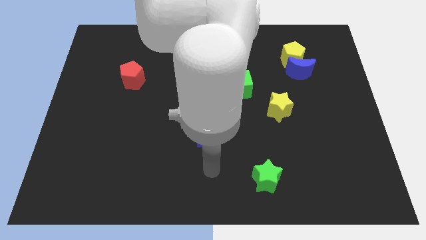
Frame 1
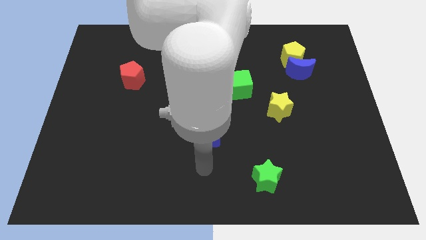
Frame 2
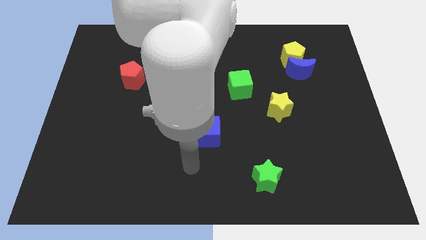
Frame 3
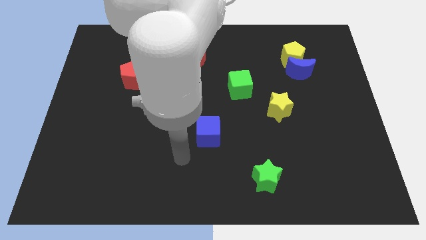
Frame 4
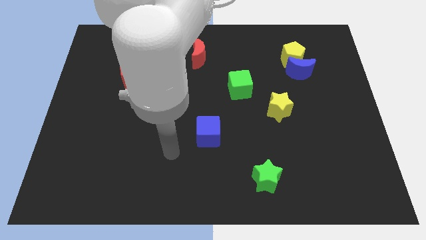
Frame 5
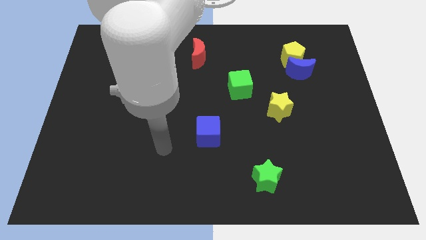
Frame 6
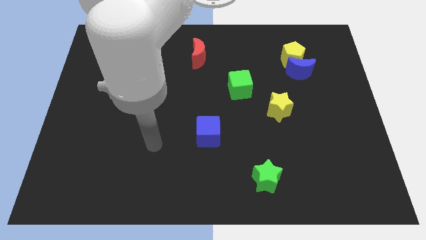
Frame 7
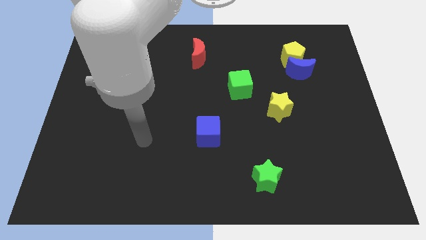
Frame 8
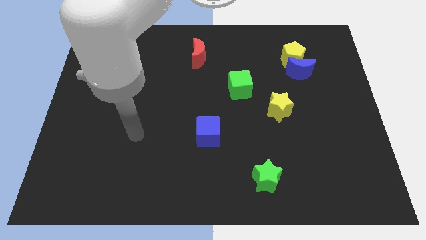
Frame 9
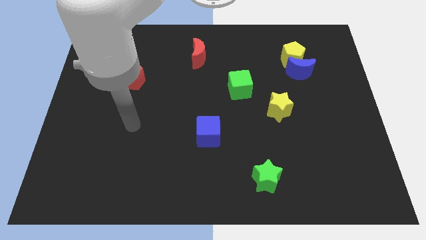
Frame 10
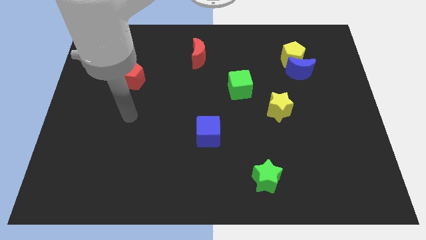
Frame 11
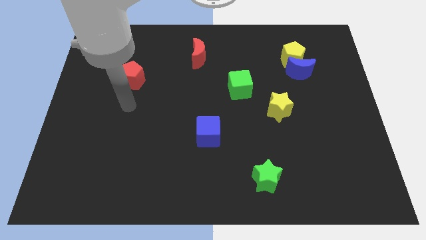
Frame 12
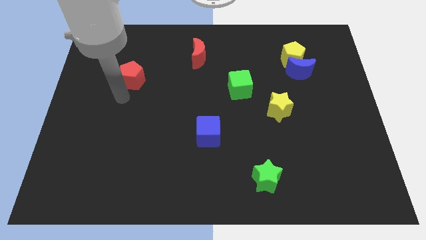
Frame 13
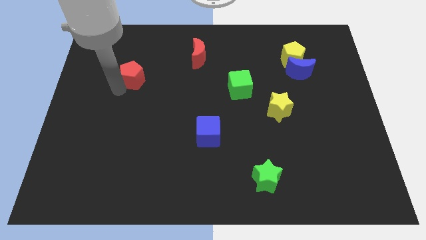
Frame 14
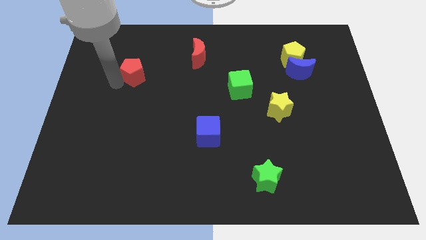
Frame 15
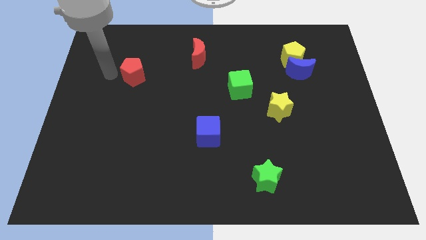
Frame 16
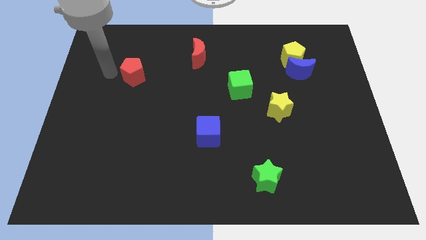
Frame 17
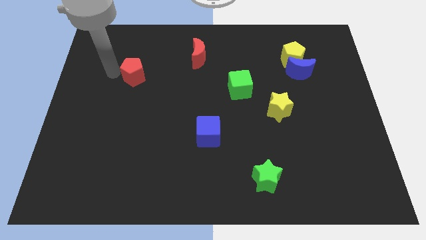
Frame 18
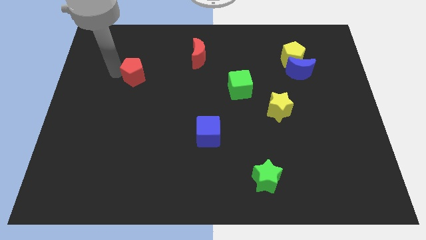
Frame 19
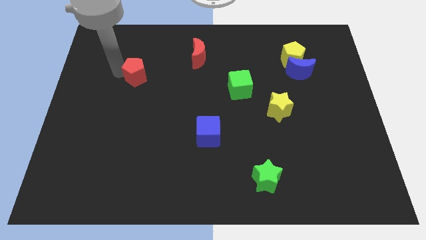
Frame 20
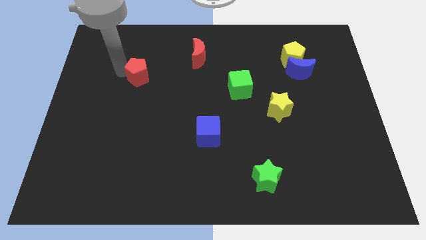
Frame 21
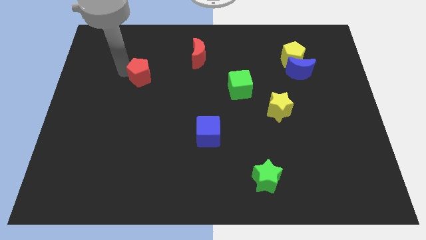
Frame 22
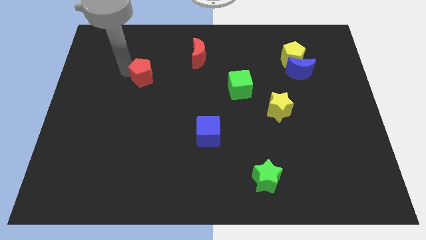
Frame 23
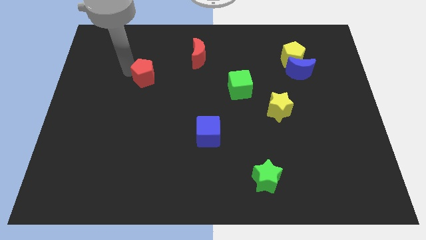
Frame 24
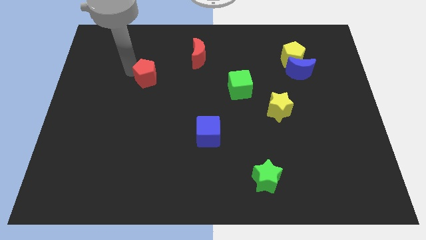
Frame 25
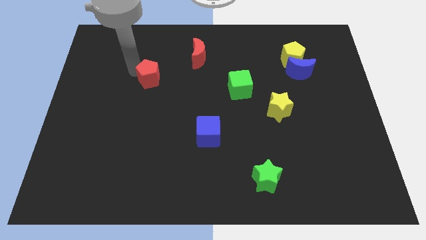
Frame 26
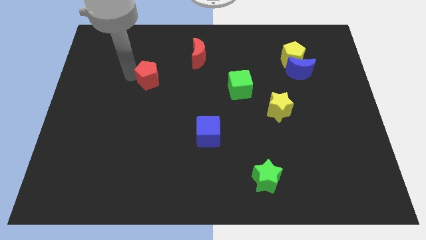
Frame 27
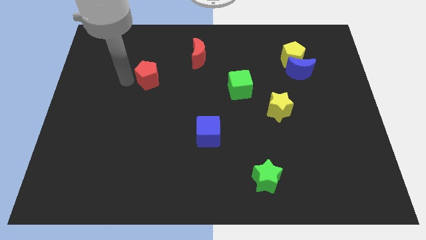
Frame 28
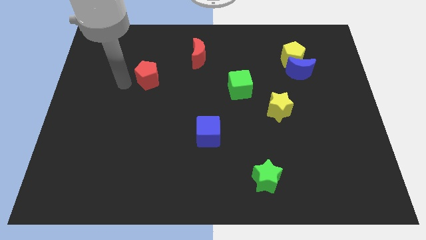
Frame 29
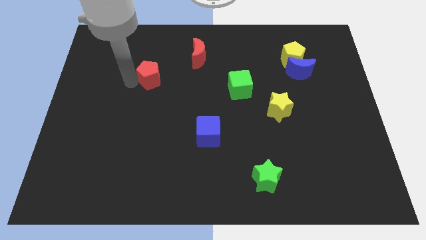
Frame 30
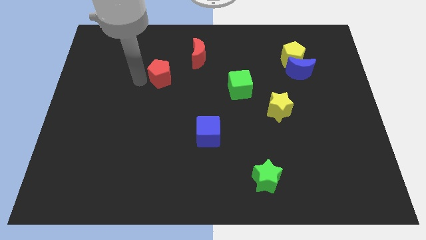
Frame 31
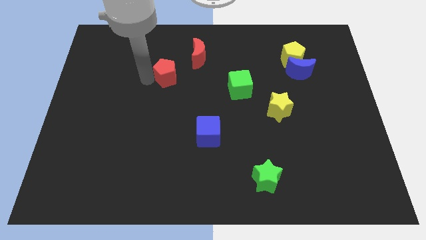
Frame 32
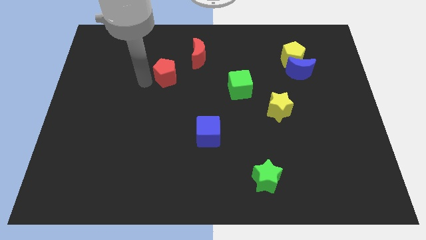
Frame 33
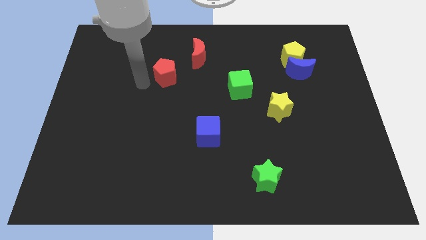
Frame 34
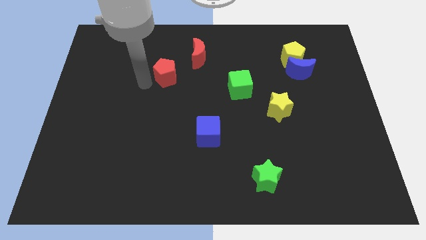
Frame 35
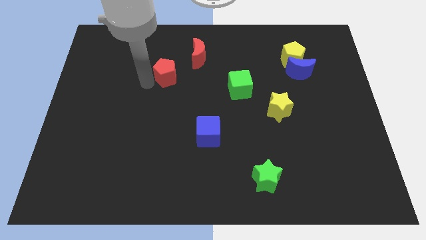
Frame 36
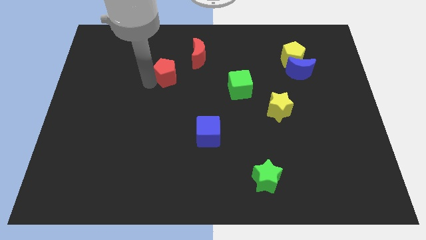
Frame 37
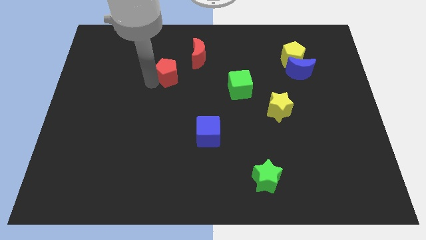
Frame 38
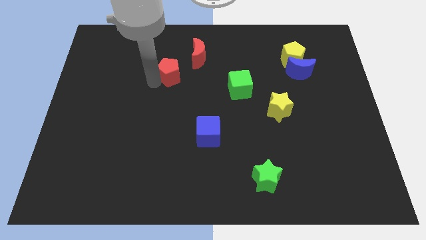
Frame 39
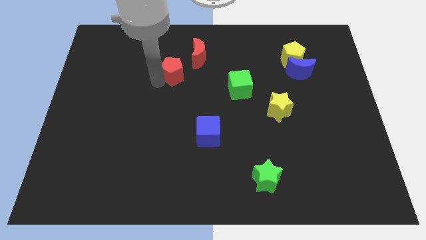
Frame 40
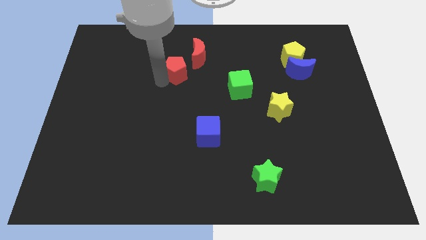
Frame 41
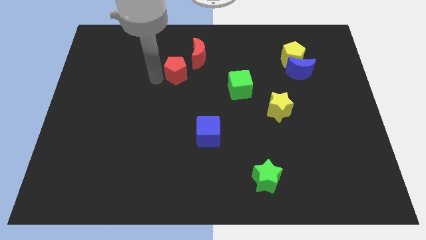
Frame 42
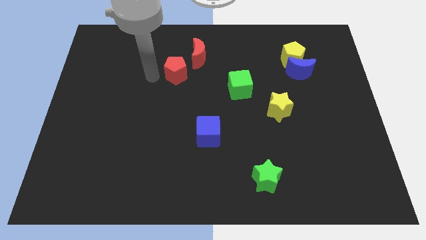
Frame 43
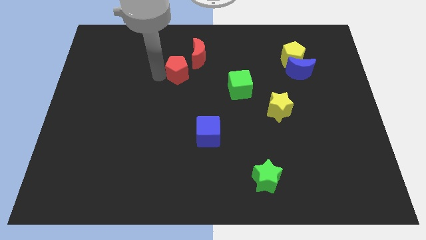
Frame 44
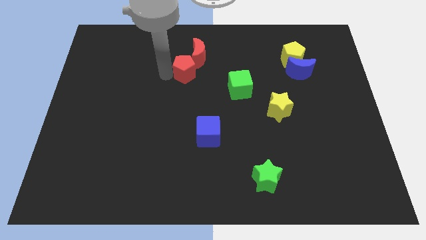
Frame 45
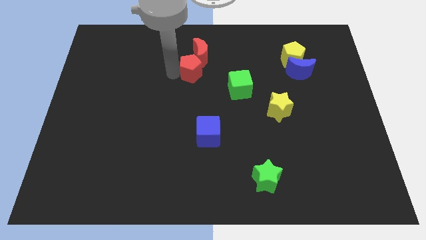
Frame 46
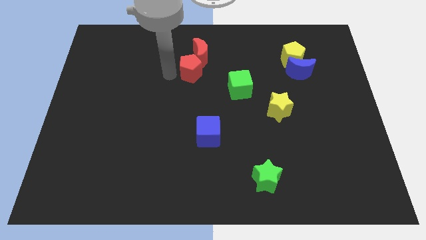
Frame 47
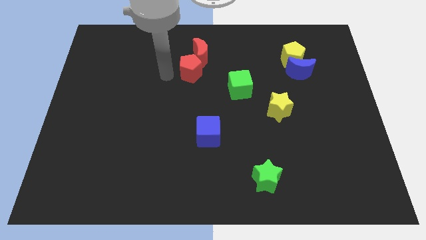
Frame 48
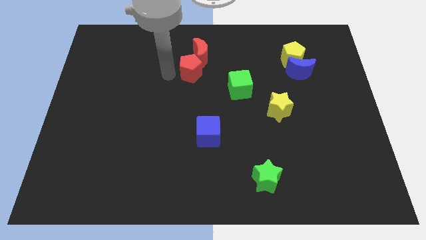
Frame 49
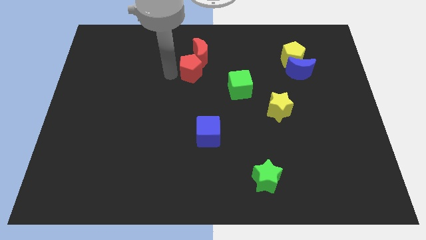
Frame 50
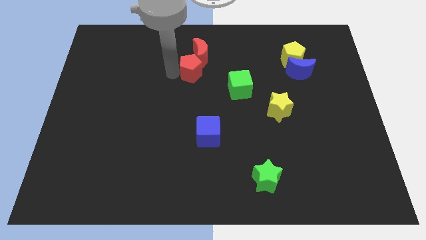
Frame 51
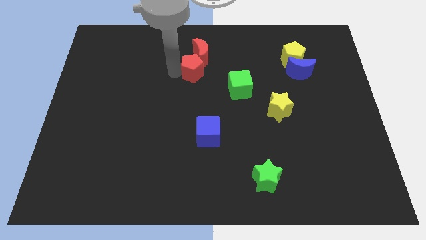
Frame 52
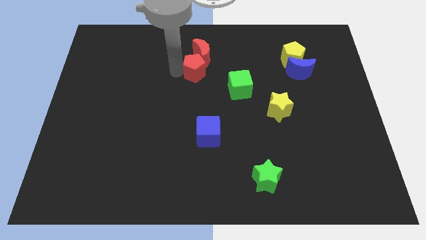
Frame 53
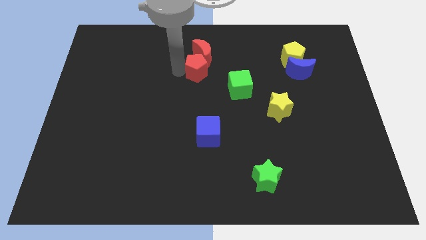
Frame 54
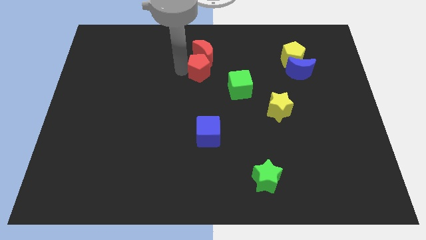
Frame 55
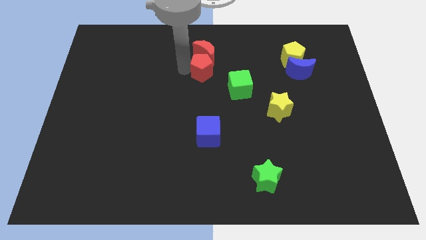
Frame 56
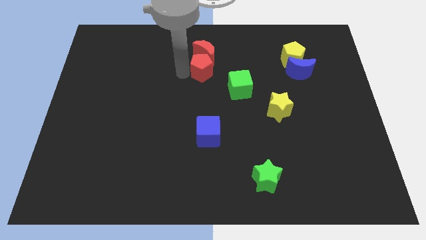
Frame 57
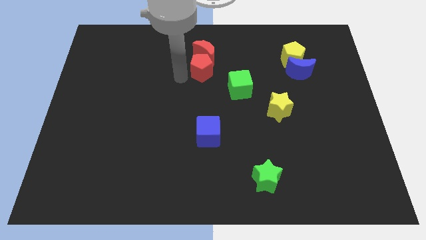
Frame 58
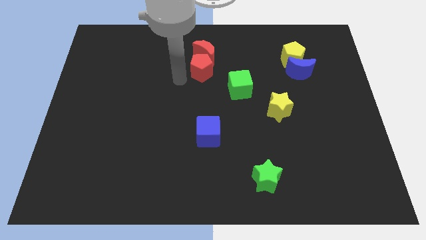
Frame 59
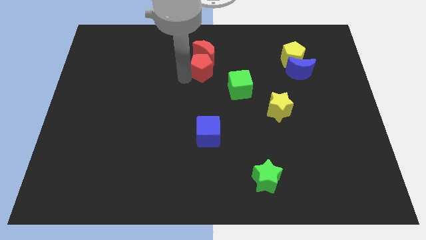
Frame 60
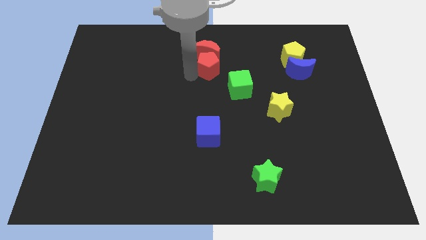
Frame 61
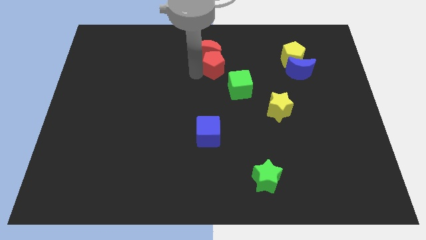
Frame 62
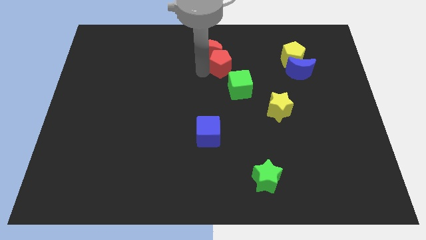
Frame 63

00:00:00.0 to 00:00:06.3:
move the red pentagon to the top side of the green cube

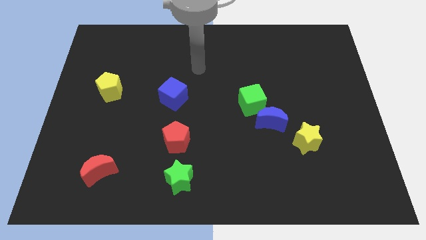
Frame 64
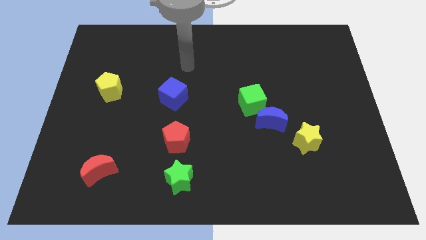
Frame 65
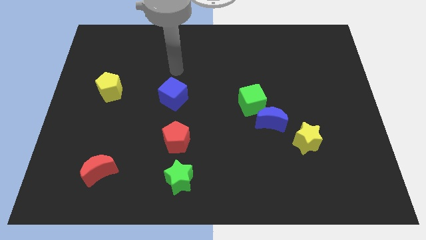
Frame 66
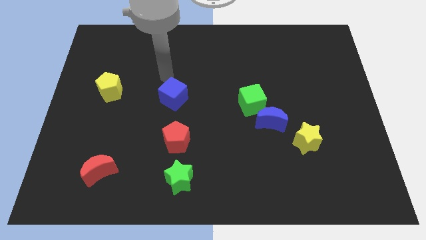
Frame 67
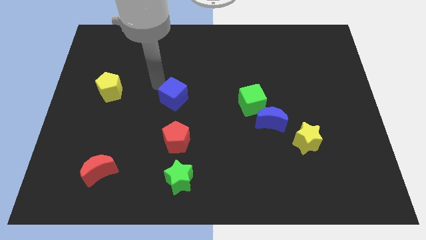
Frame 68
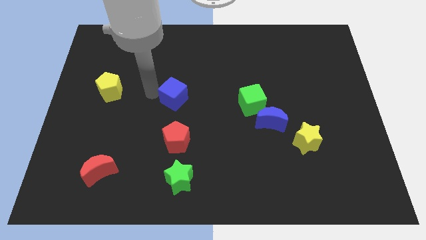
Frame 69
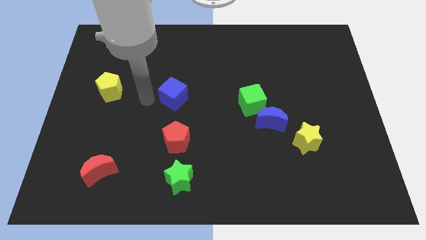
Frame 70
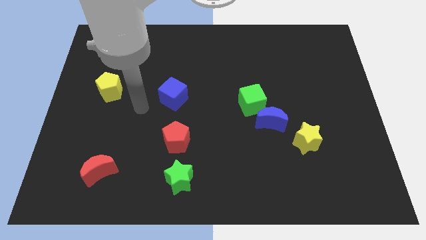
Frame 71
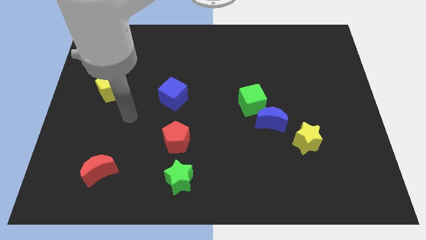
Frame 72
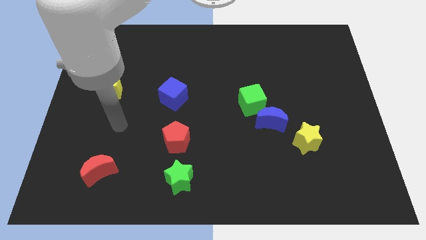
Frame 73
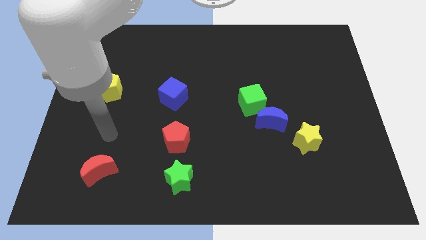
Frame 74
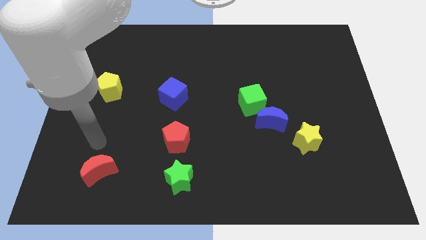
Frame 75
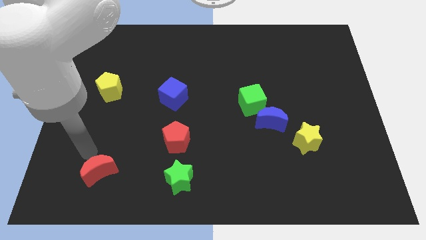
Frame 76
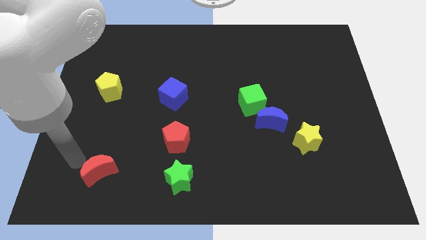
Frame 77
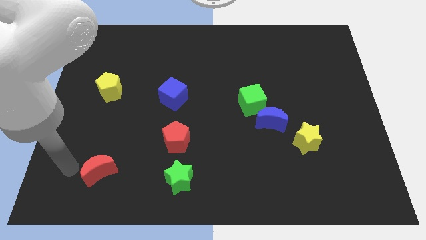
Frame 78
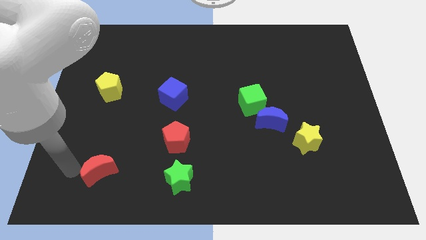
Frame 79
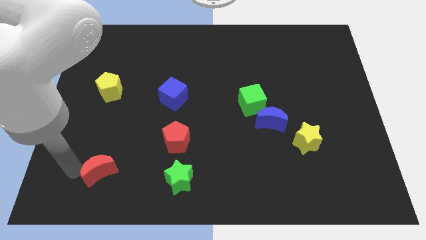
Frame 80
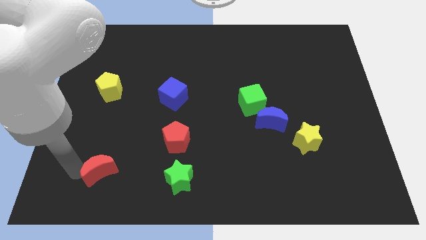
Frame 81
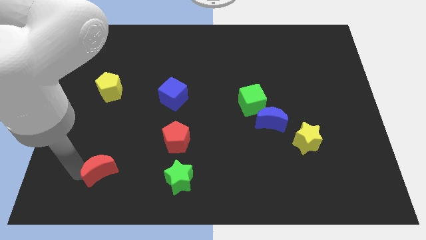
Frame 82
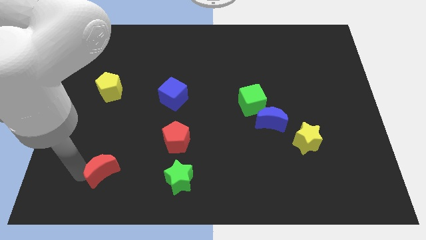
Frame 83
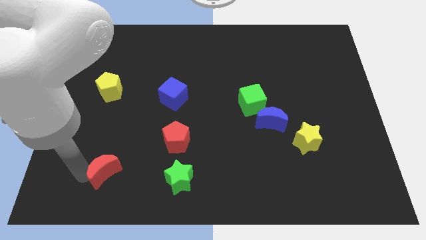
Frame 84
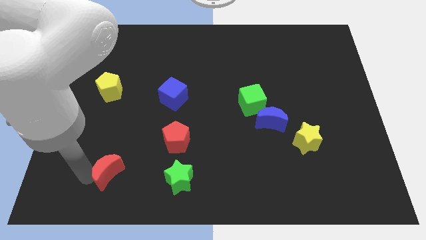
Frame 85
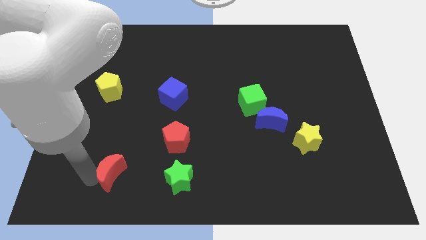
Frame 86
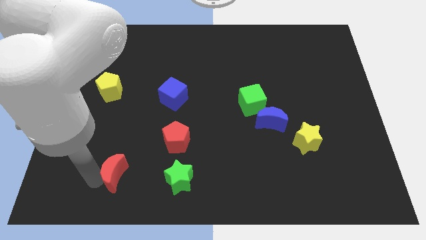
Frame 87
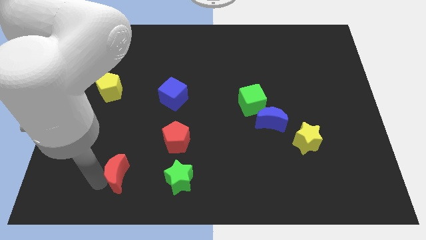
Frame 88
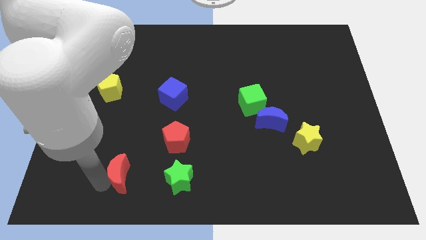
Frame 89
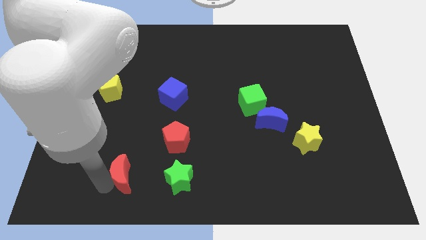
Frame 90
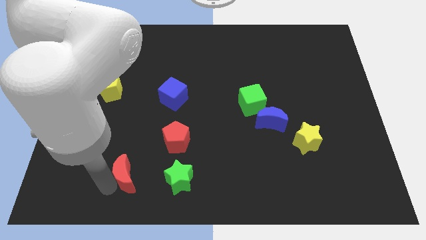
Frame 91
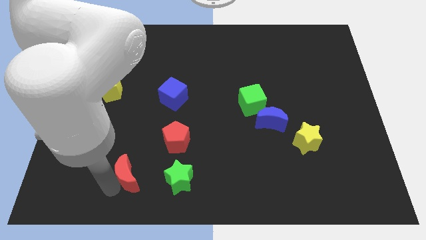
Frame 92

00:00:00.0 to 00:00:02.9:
push the red moon to the bottom left side of the red pentagon
